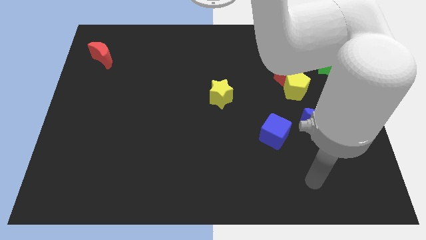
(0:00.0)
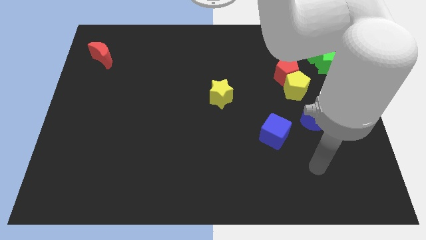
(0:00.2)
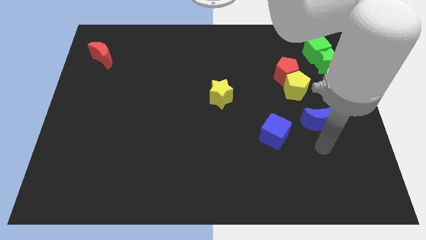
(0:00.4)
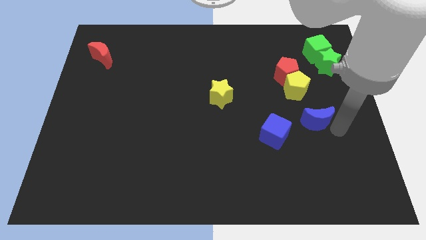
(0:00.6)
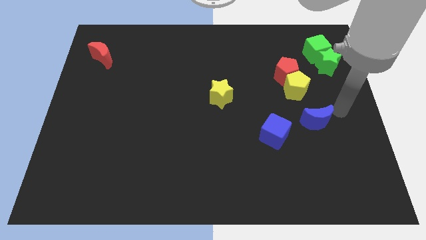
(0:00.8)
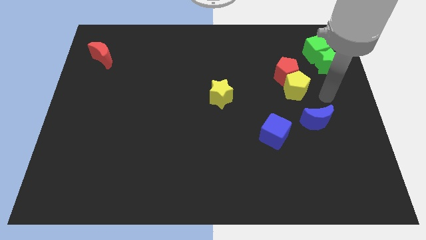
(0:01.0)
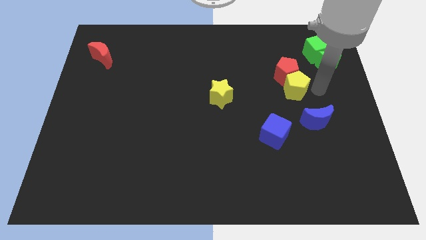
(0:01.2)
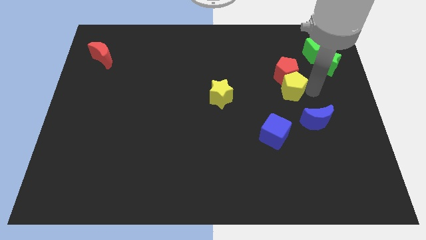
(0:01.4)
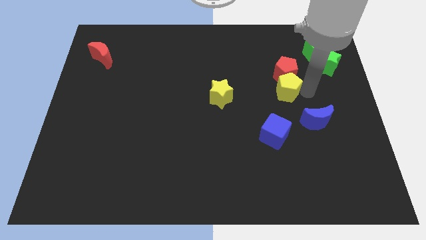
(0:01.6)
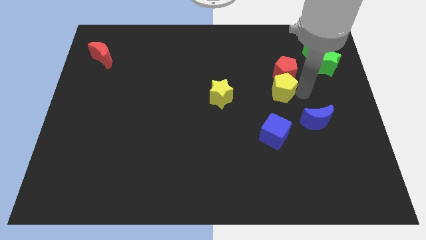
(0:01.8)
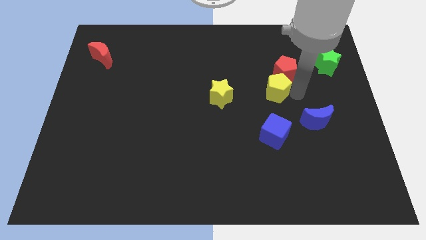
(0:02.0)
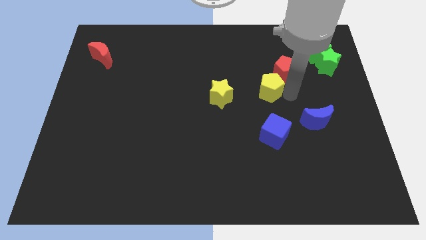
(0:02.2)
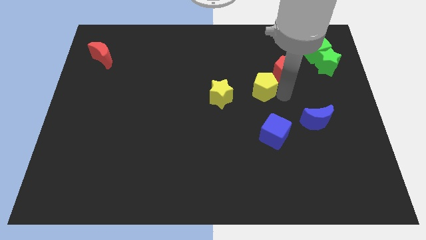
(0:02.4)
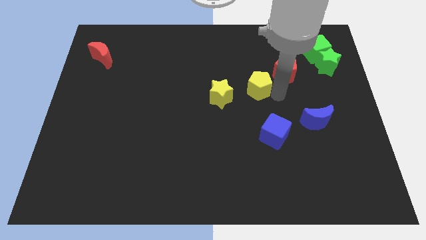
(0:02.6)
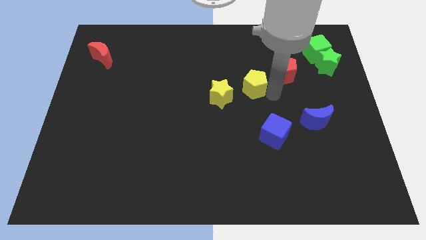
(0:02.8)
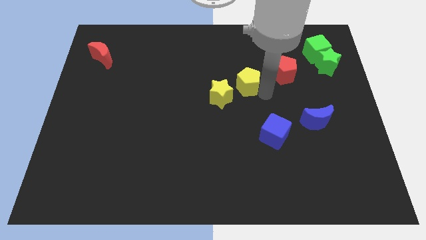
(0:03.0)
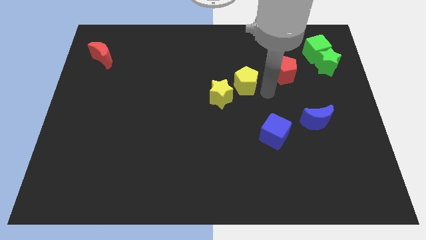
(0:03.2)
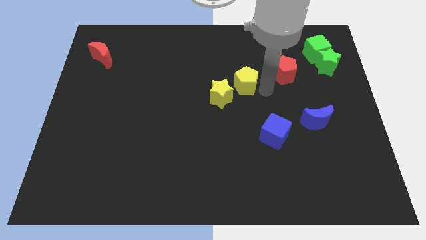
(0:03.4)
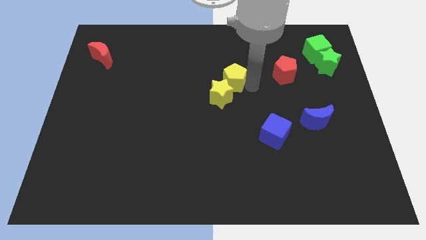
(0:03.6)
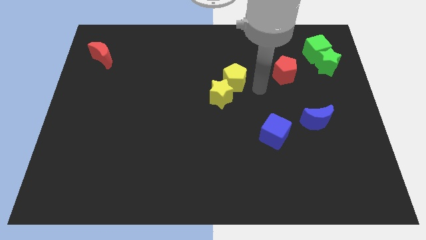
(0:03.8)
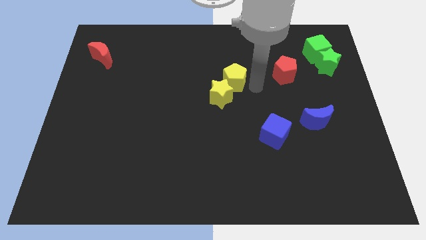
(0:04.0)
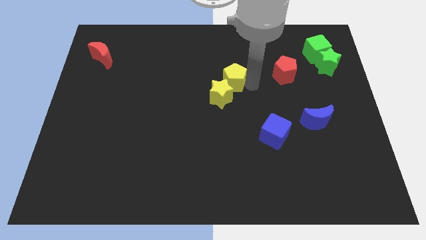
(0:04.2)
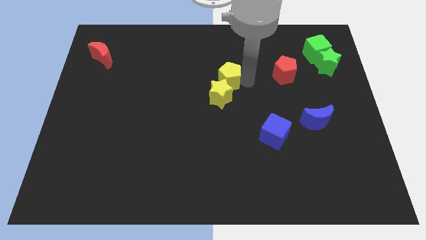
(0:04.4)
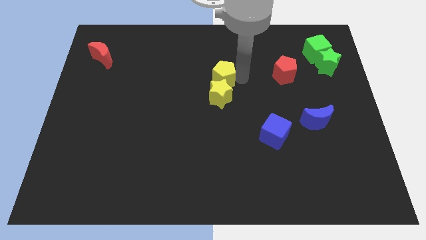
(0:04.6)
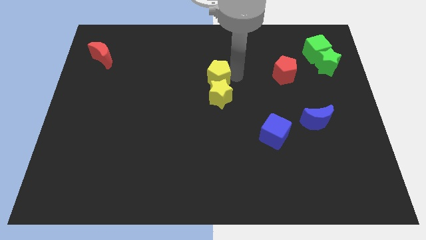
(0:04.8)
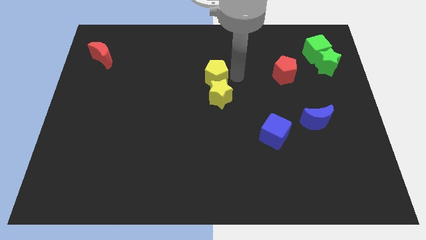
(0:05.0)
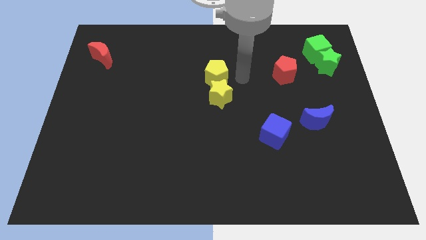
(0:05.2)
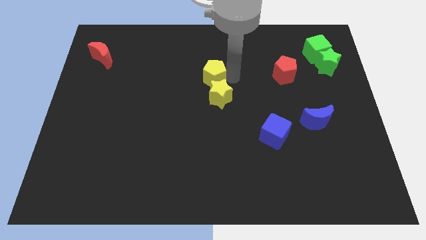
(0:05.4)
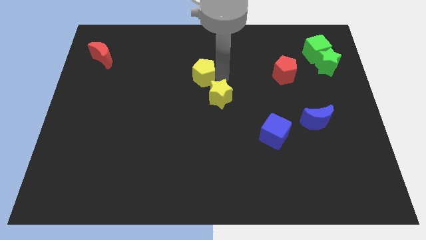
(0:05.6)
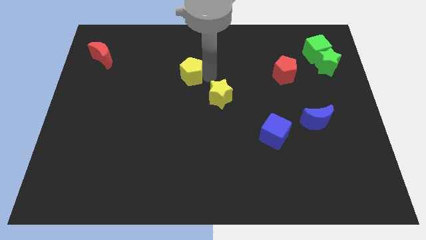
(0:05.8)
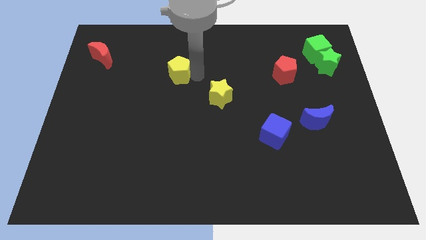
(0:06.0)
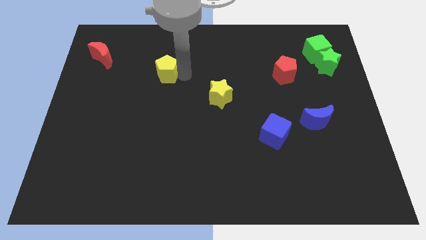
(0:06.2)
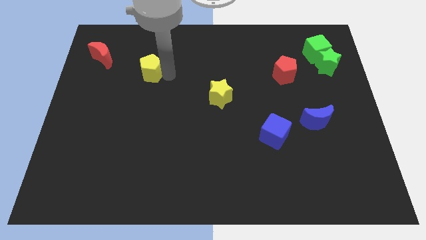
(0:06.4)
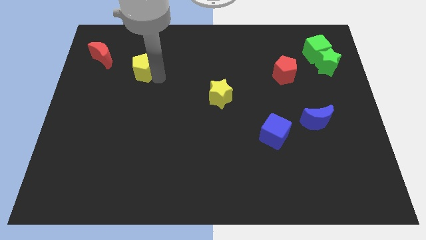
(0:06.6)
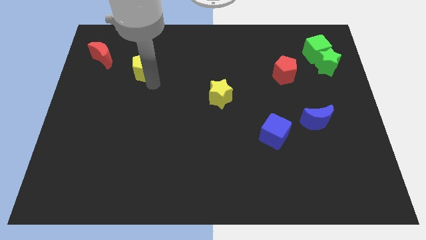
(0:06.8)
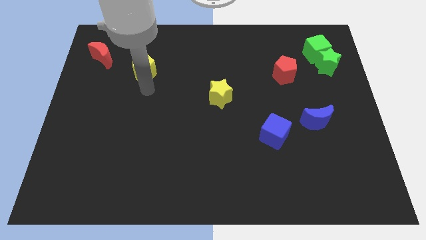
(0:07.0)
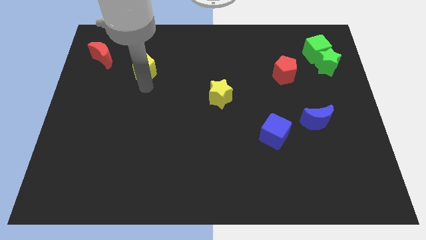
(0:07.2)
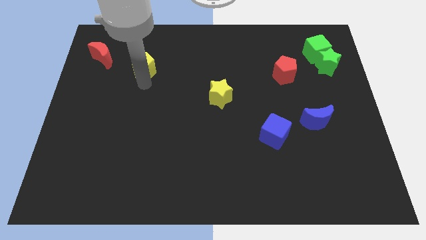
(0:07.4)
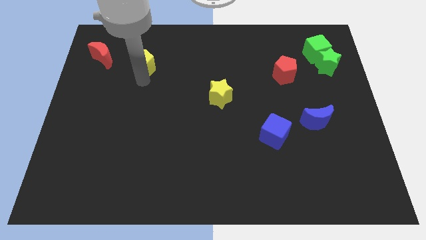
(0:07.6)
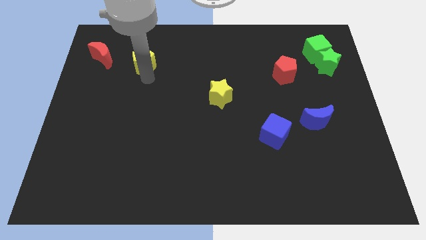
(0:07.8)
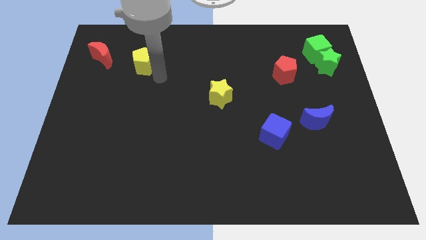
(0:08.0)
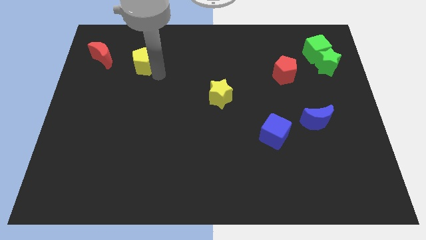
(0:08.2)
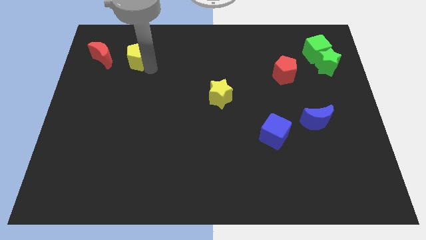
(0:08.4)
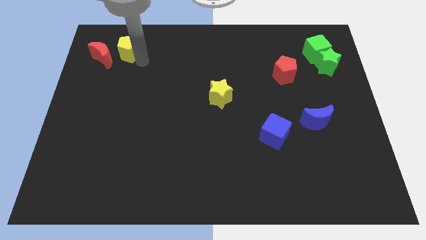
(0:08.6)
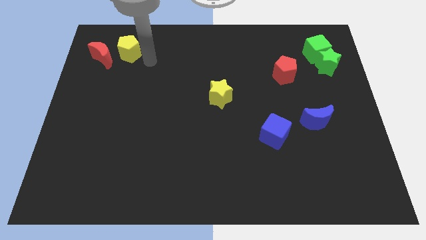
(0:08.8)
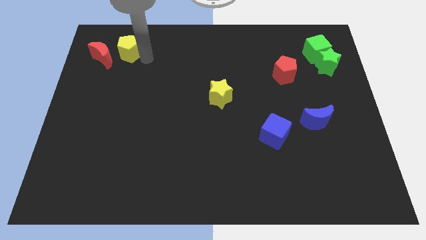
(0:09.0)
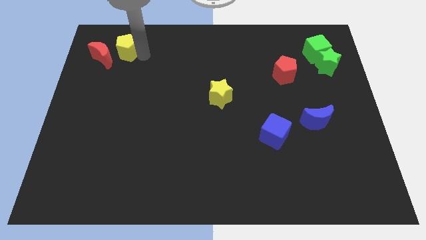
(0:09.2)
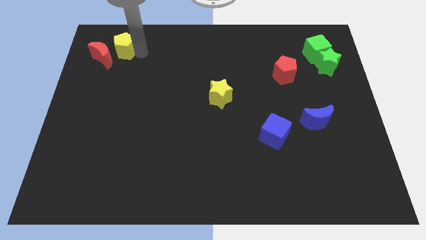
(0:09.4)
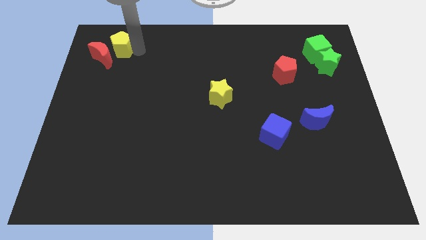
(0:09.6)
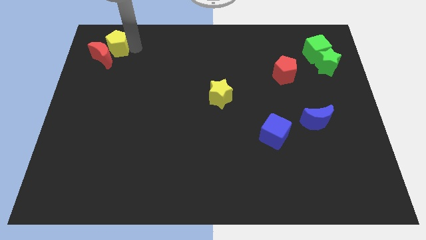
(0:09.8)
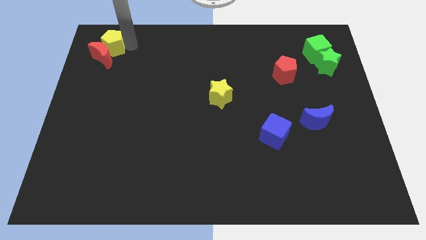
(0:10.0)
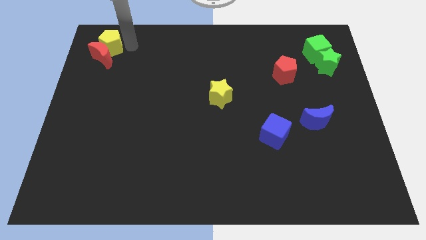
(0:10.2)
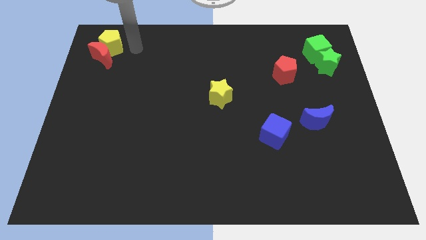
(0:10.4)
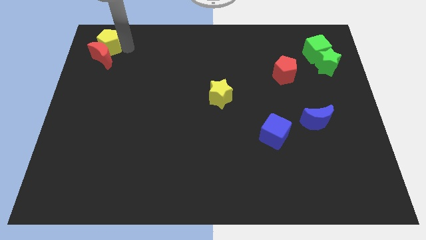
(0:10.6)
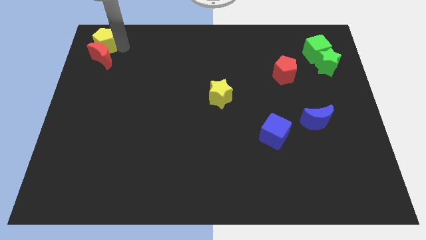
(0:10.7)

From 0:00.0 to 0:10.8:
put the yellow pentagon to the top left

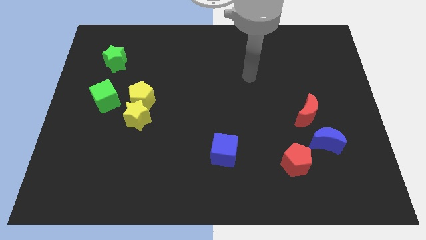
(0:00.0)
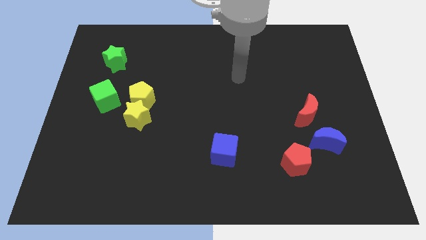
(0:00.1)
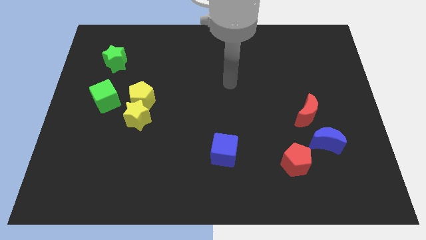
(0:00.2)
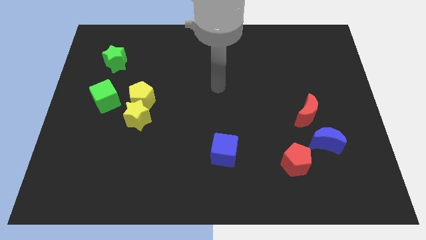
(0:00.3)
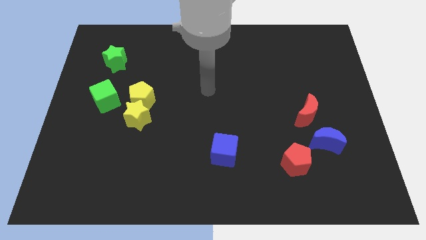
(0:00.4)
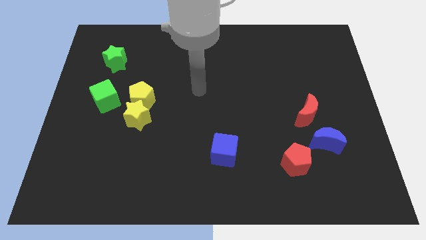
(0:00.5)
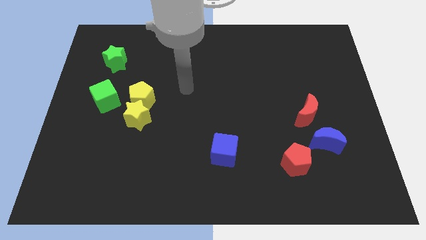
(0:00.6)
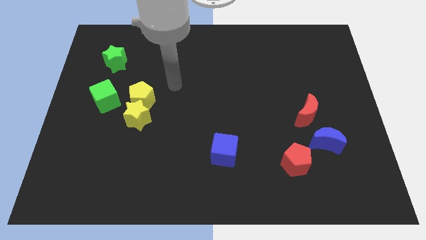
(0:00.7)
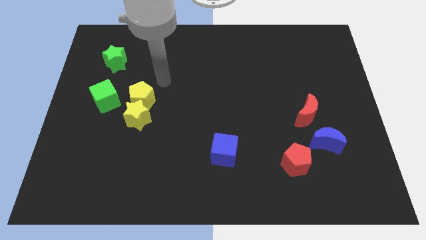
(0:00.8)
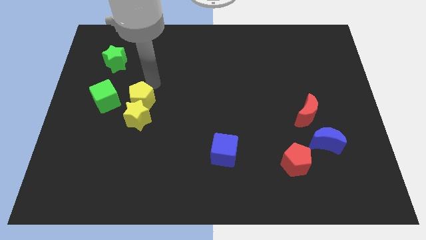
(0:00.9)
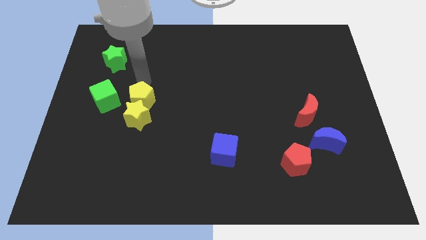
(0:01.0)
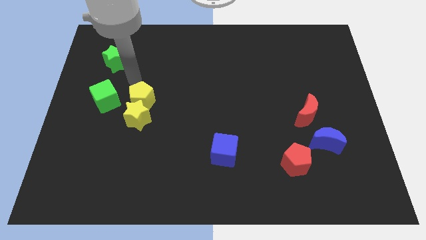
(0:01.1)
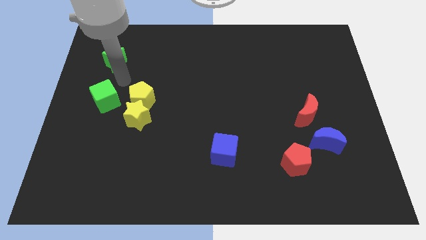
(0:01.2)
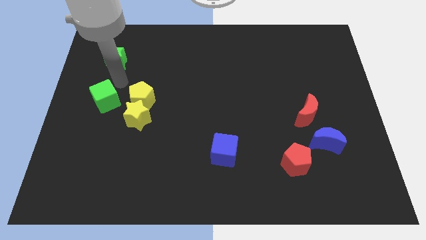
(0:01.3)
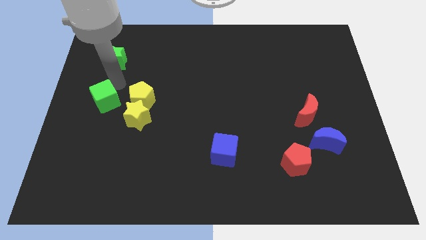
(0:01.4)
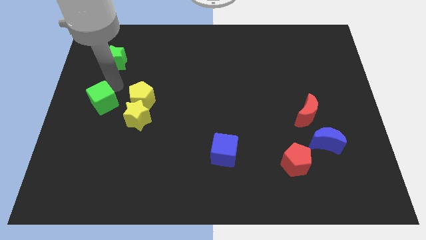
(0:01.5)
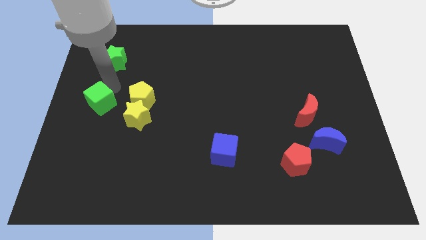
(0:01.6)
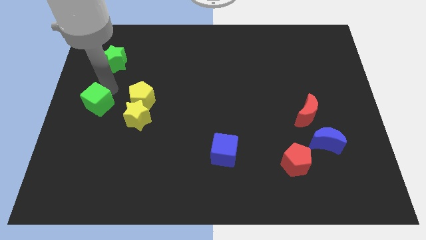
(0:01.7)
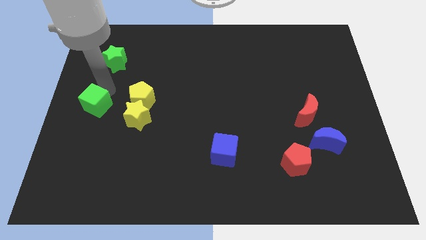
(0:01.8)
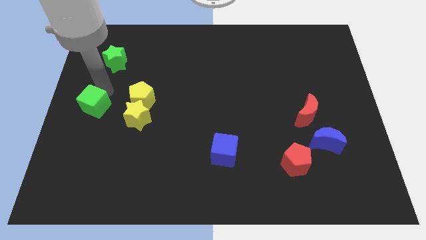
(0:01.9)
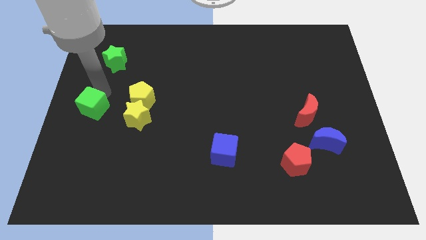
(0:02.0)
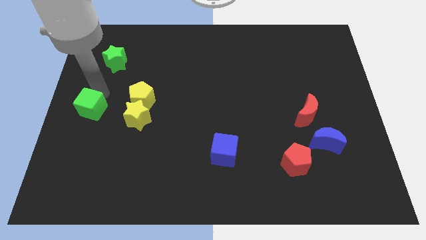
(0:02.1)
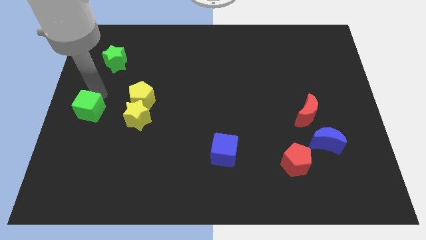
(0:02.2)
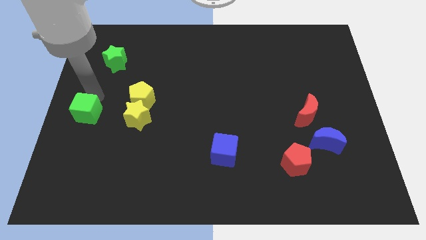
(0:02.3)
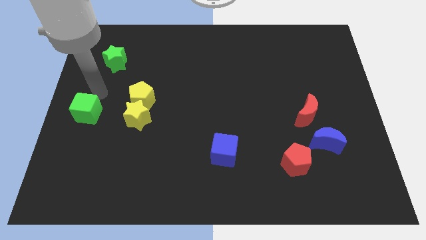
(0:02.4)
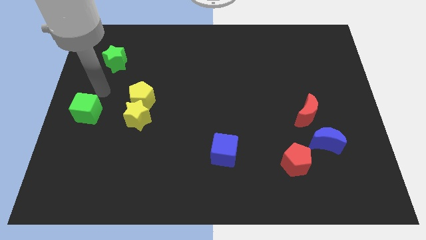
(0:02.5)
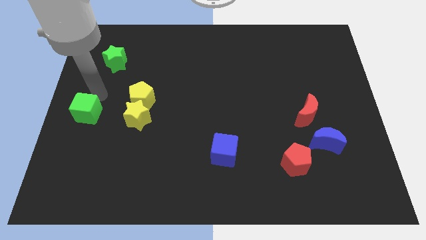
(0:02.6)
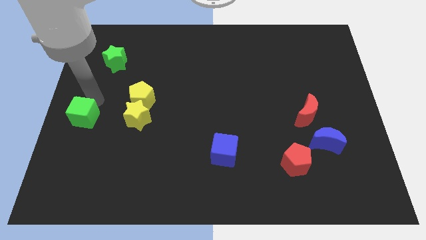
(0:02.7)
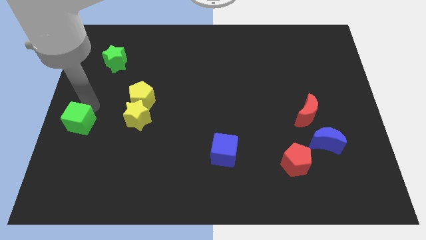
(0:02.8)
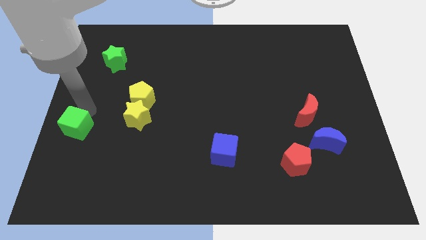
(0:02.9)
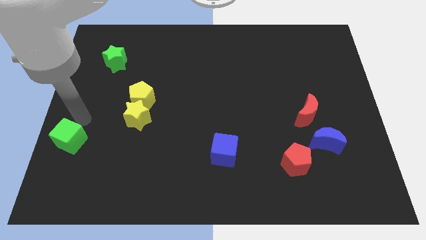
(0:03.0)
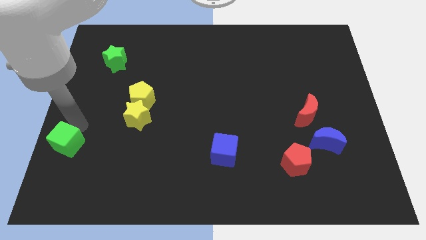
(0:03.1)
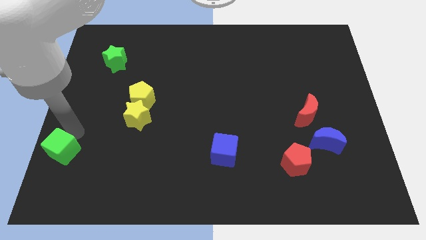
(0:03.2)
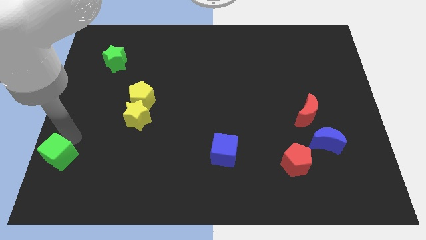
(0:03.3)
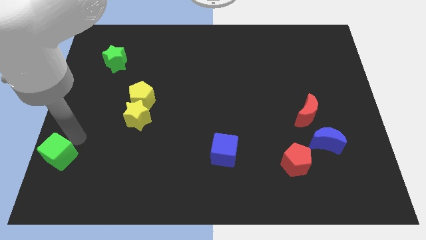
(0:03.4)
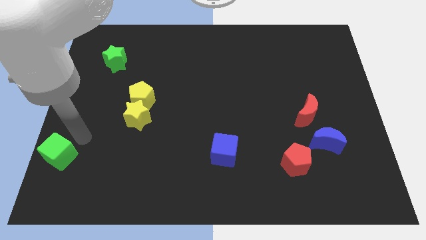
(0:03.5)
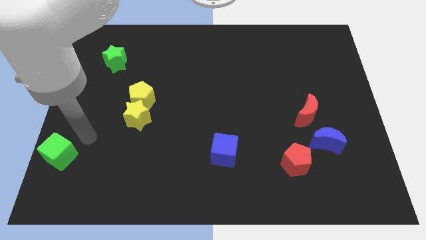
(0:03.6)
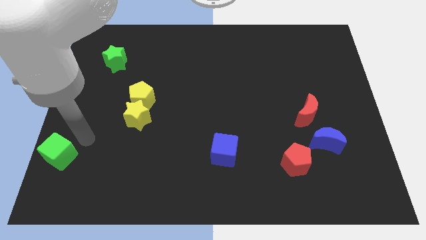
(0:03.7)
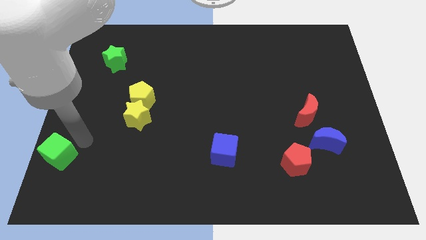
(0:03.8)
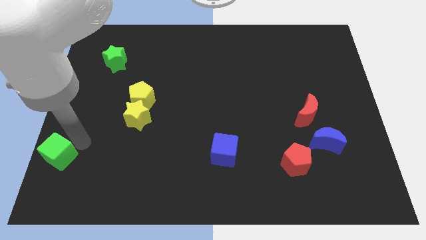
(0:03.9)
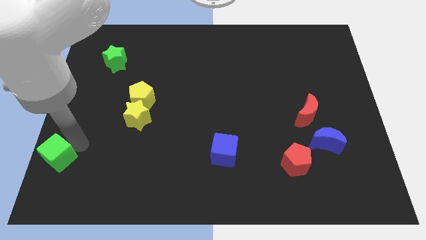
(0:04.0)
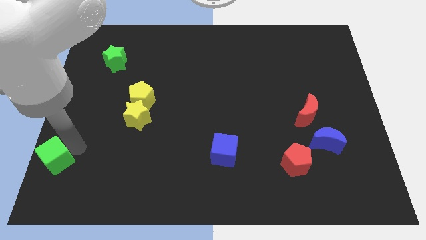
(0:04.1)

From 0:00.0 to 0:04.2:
slide the green cube to the bottom left of the board
